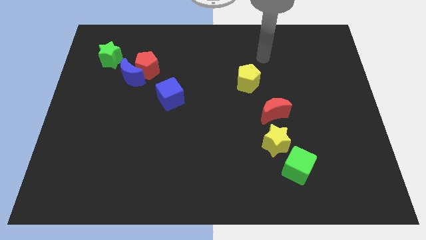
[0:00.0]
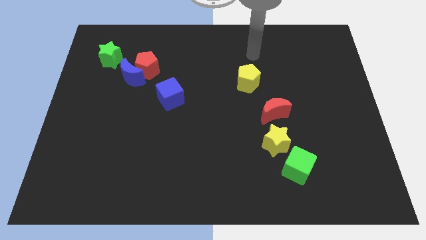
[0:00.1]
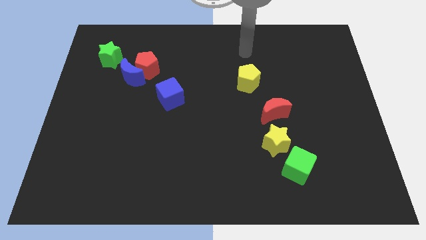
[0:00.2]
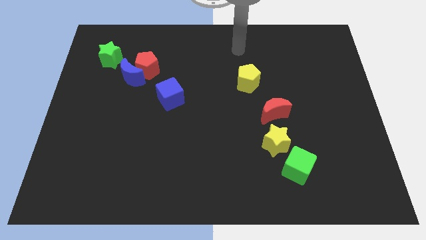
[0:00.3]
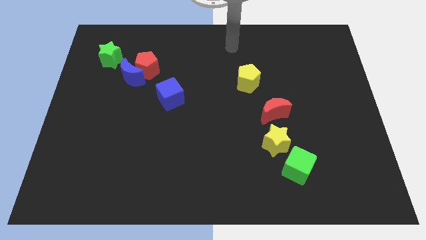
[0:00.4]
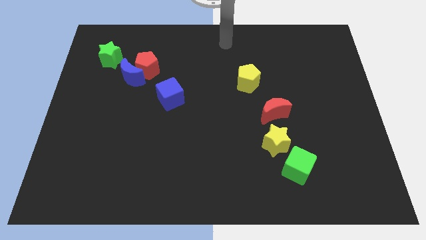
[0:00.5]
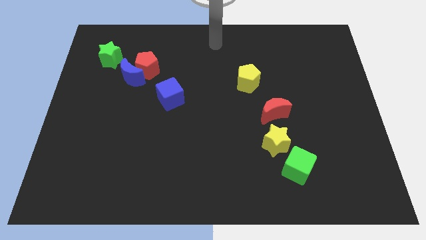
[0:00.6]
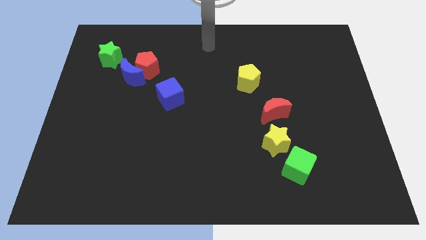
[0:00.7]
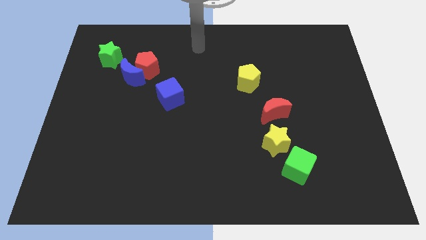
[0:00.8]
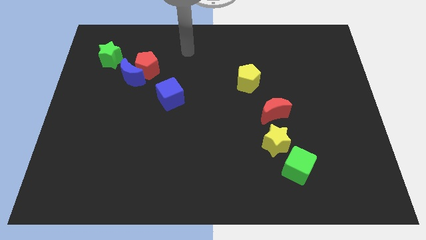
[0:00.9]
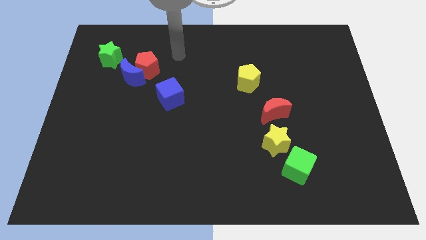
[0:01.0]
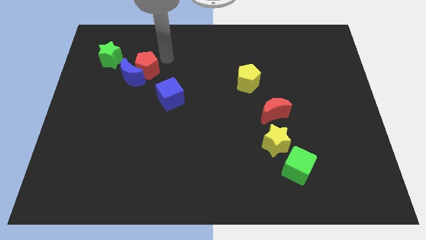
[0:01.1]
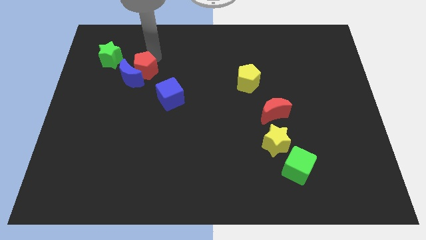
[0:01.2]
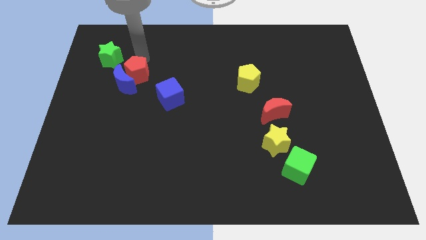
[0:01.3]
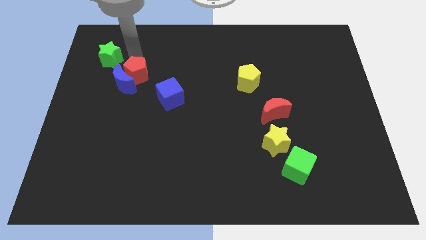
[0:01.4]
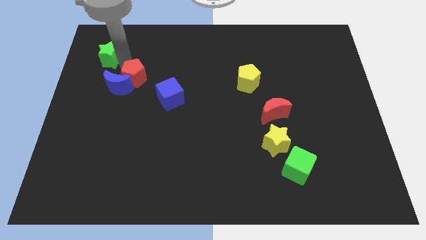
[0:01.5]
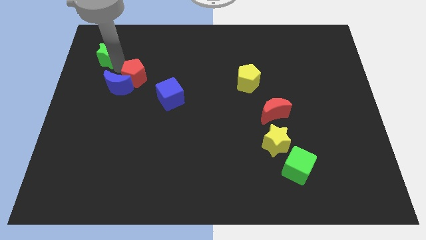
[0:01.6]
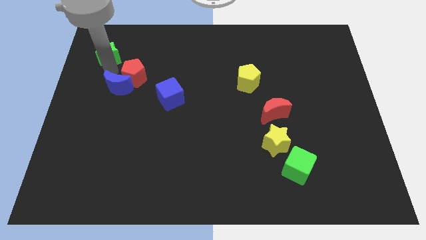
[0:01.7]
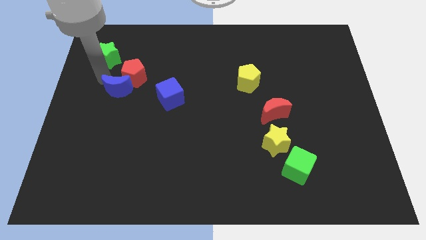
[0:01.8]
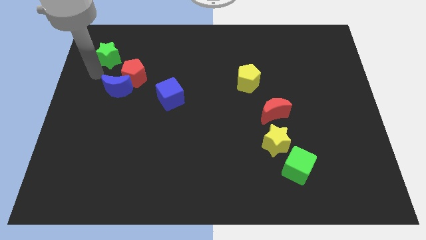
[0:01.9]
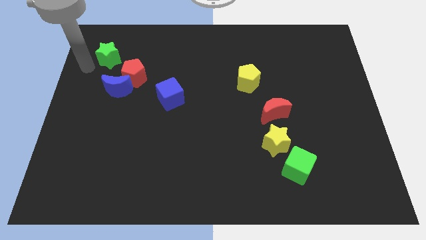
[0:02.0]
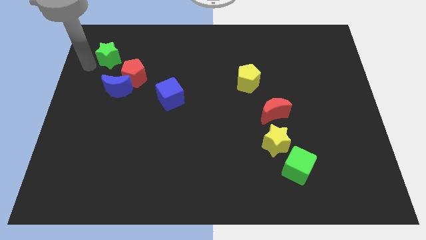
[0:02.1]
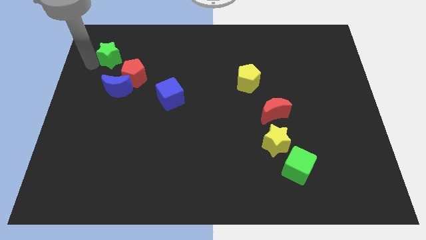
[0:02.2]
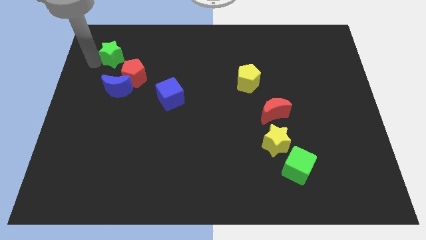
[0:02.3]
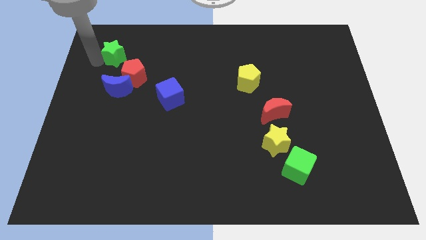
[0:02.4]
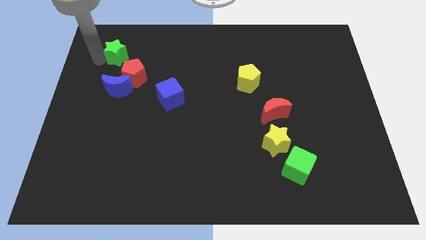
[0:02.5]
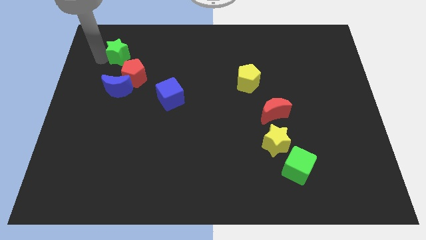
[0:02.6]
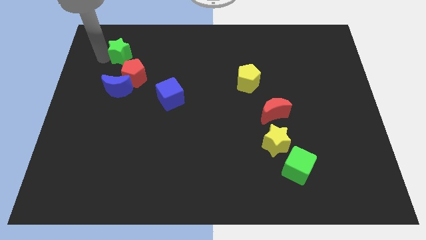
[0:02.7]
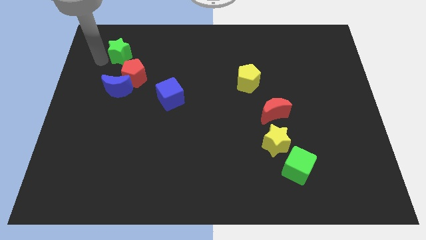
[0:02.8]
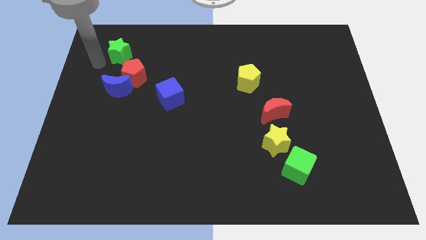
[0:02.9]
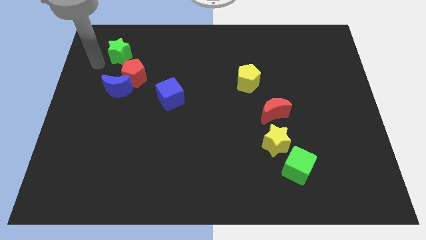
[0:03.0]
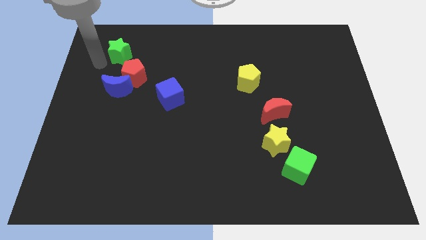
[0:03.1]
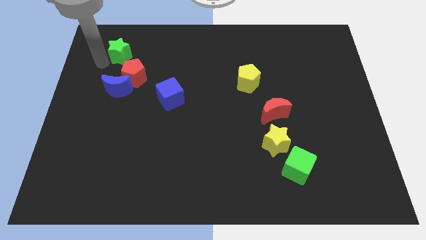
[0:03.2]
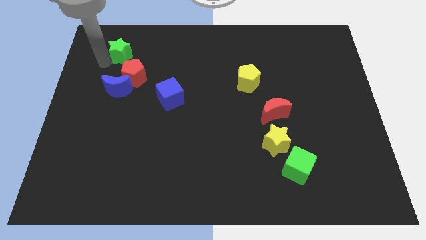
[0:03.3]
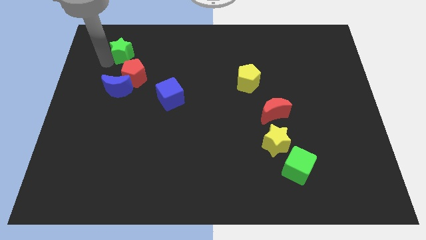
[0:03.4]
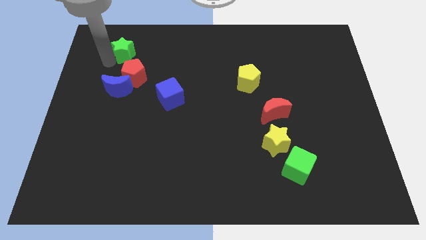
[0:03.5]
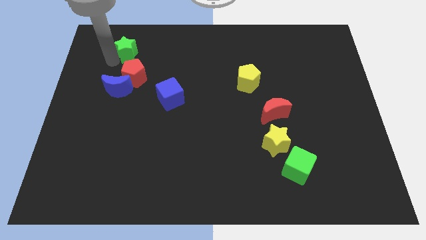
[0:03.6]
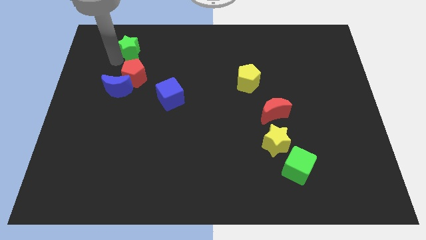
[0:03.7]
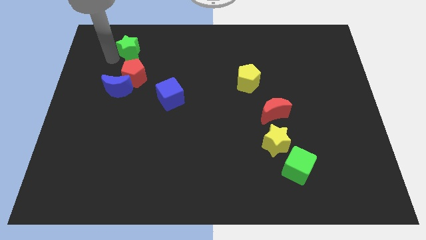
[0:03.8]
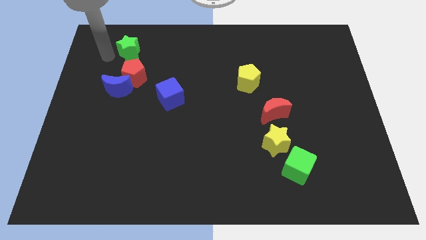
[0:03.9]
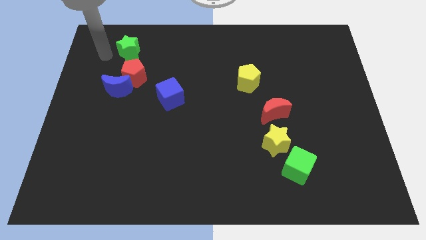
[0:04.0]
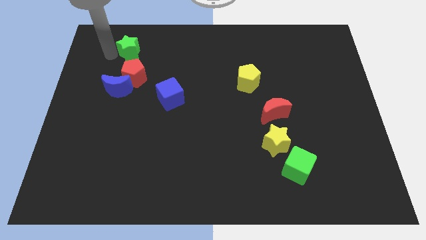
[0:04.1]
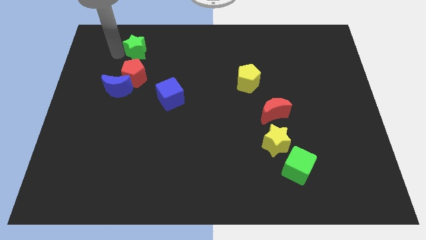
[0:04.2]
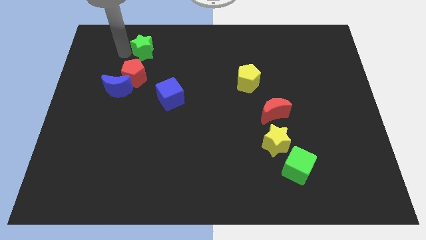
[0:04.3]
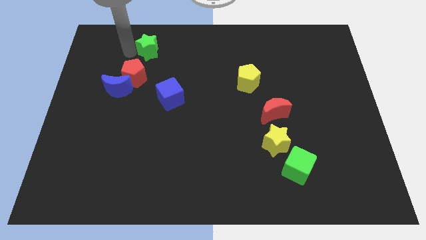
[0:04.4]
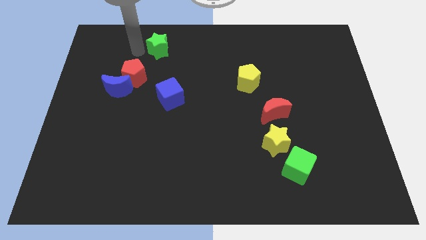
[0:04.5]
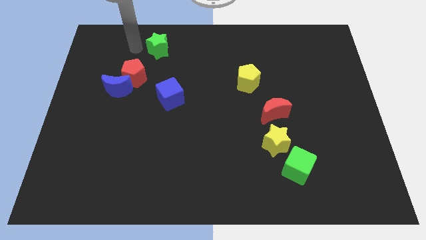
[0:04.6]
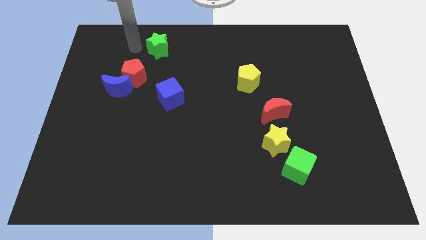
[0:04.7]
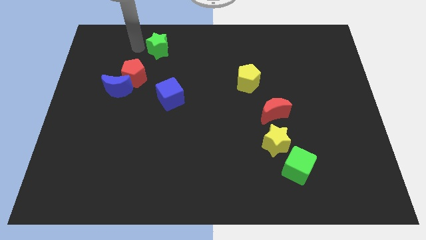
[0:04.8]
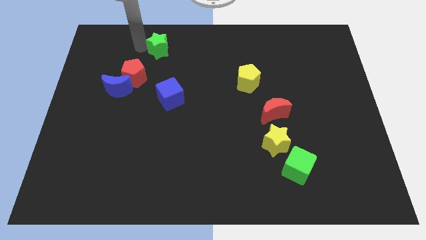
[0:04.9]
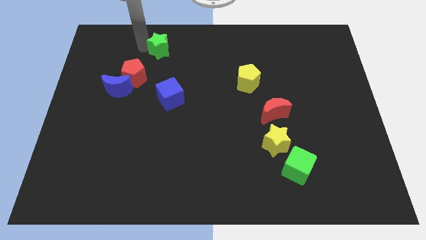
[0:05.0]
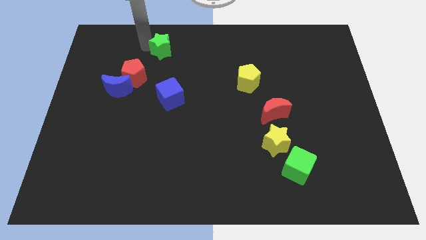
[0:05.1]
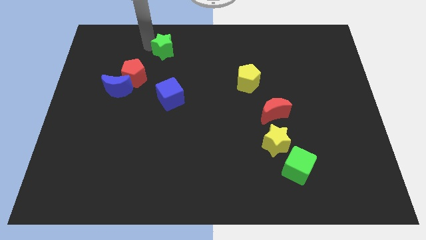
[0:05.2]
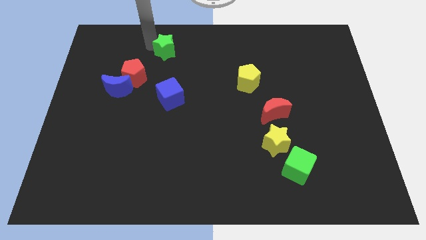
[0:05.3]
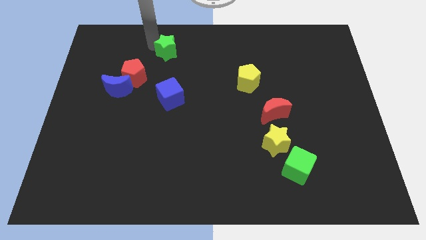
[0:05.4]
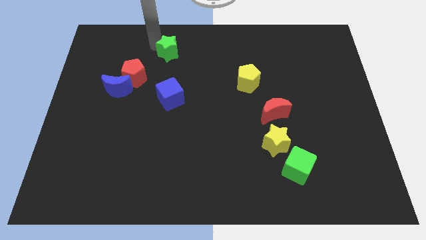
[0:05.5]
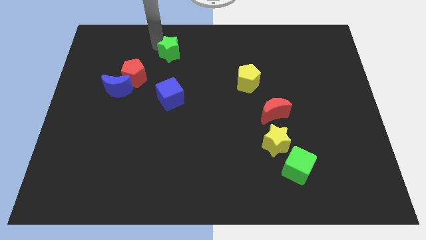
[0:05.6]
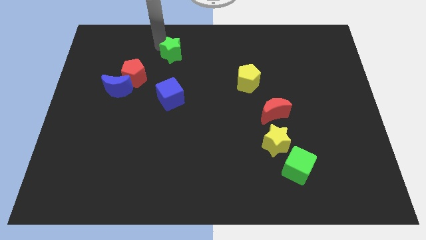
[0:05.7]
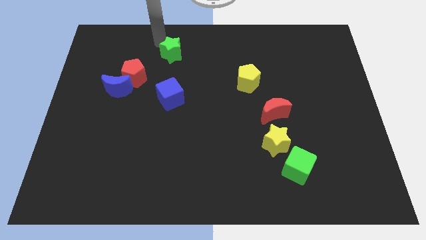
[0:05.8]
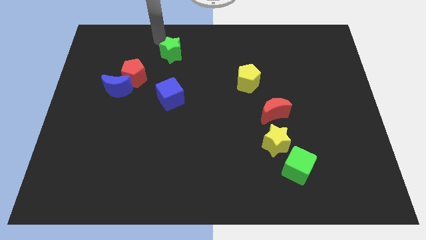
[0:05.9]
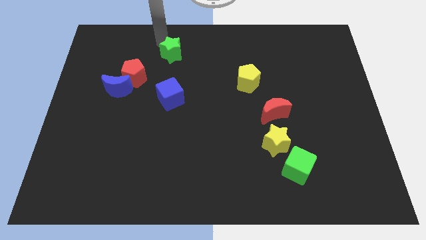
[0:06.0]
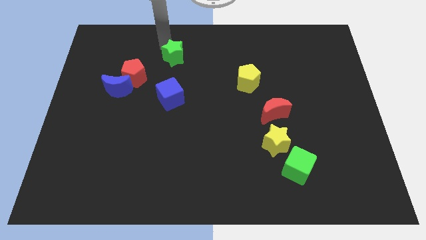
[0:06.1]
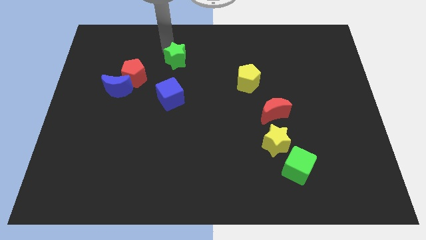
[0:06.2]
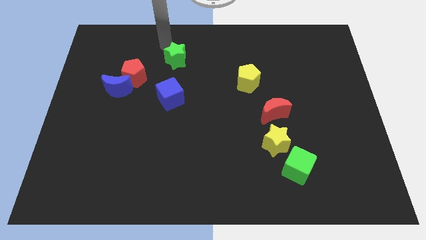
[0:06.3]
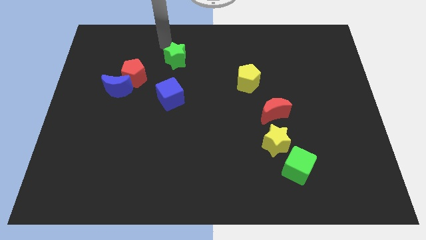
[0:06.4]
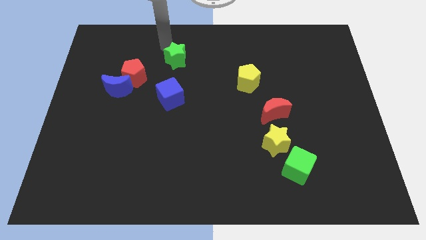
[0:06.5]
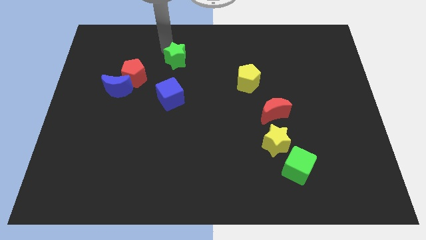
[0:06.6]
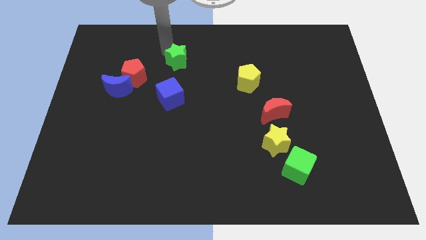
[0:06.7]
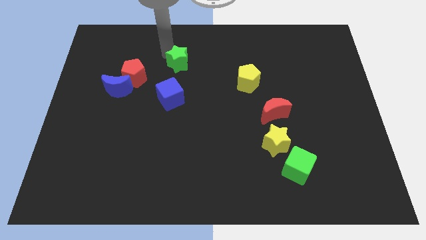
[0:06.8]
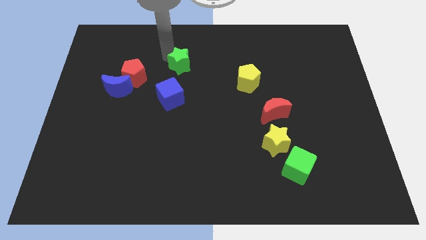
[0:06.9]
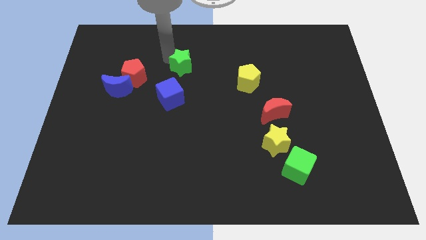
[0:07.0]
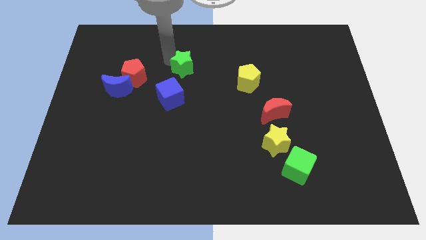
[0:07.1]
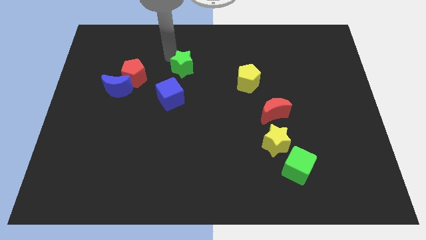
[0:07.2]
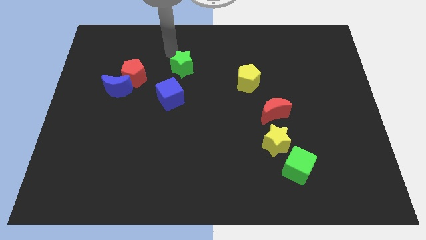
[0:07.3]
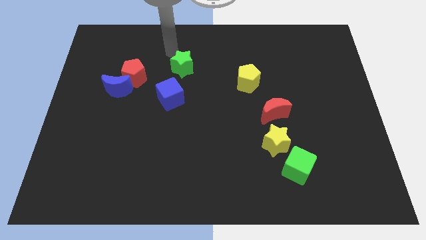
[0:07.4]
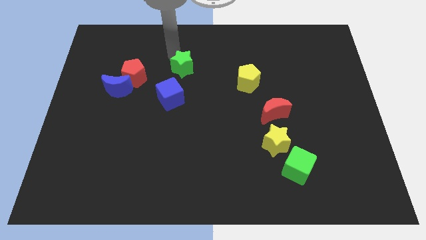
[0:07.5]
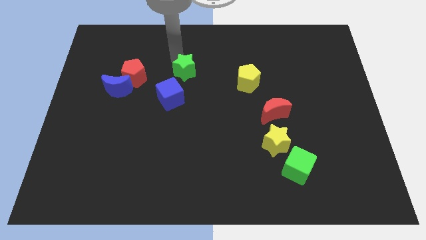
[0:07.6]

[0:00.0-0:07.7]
put the green star to the middle
